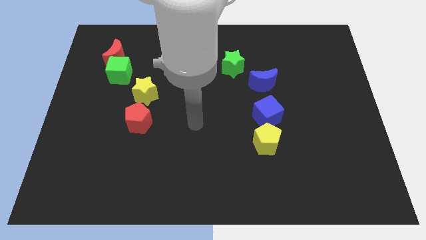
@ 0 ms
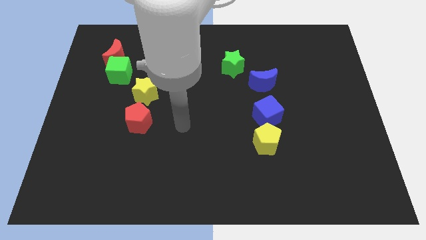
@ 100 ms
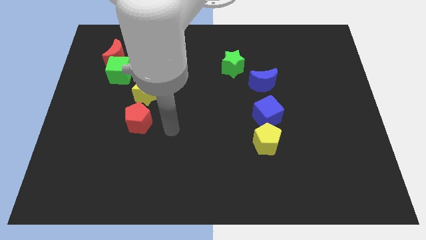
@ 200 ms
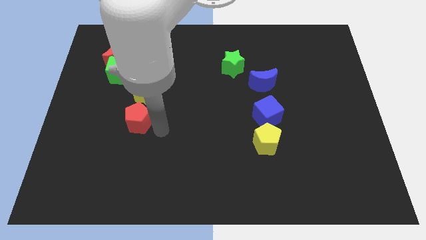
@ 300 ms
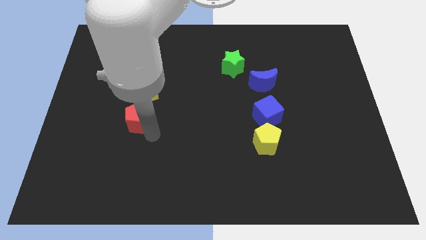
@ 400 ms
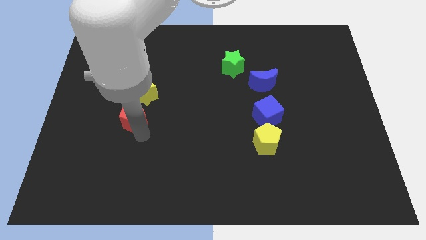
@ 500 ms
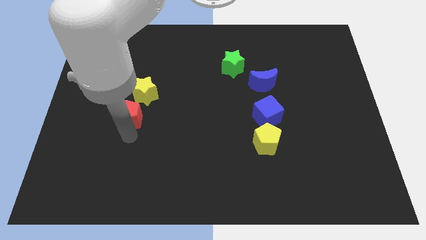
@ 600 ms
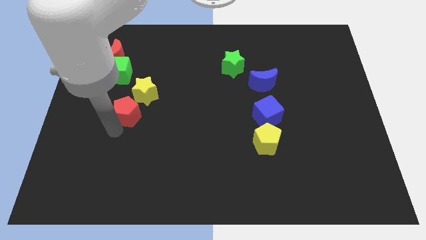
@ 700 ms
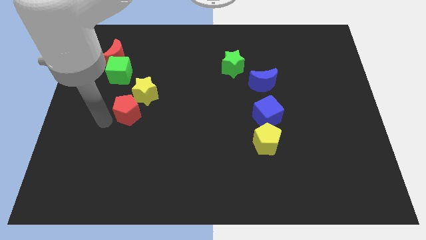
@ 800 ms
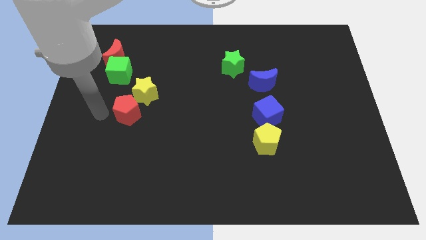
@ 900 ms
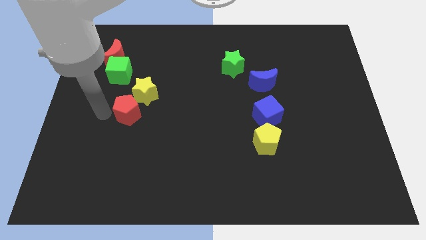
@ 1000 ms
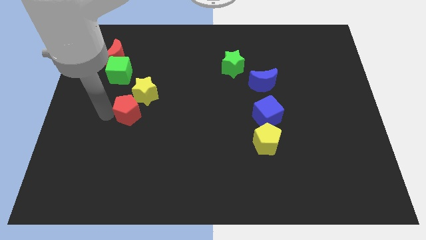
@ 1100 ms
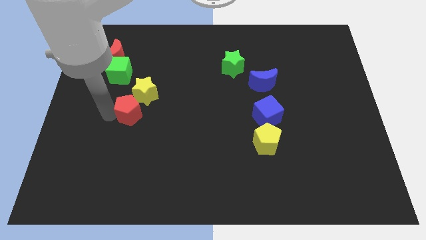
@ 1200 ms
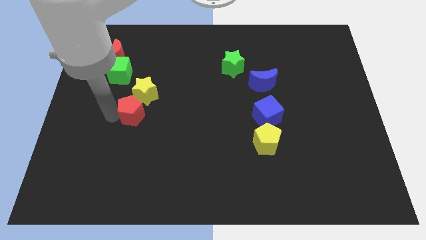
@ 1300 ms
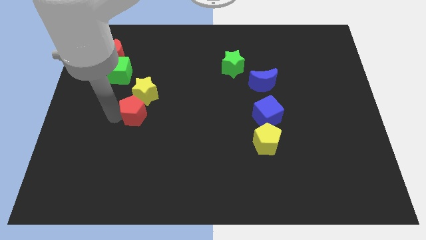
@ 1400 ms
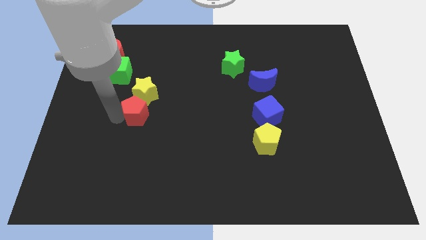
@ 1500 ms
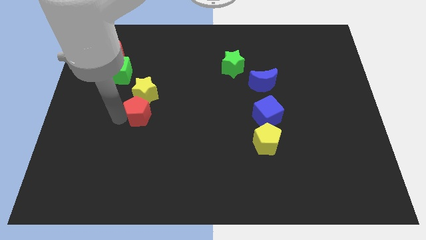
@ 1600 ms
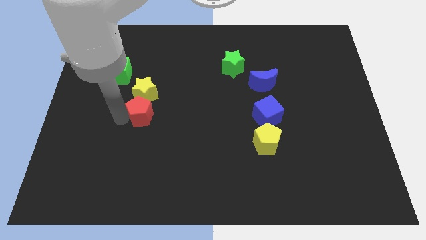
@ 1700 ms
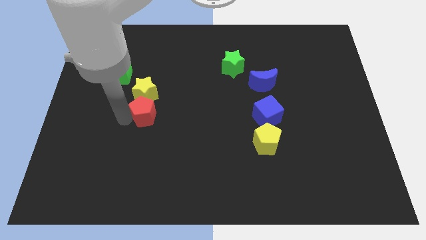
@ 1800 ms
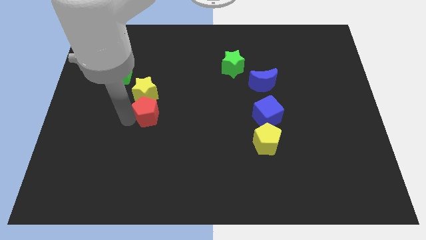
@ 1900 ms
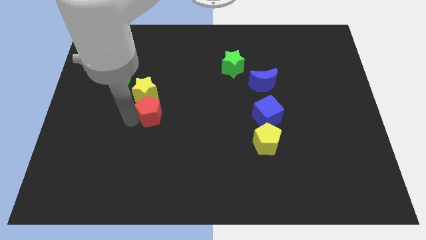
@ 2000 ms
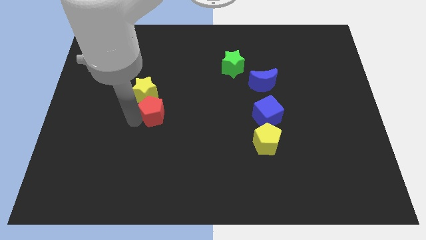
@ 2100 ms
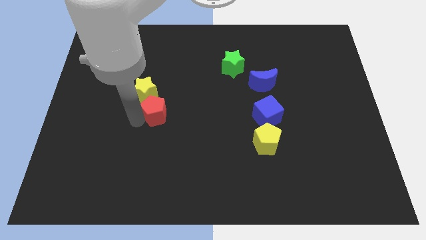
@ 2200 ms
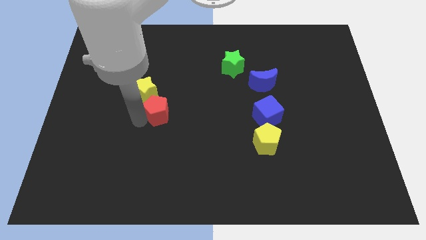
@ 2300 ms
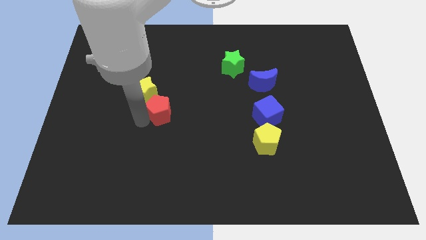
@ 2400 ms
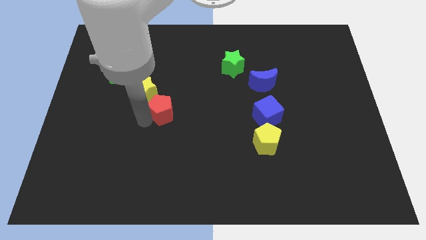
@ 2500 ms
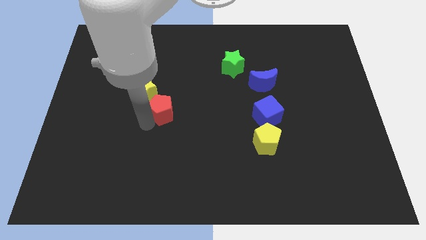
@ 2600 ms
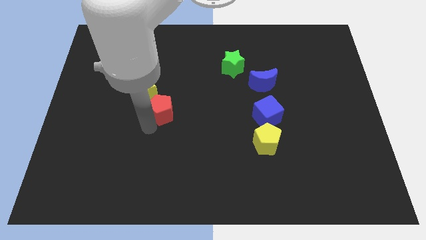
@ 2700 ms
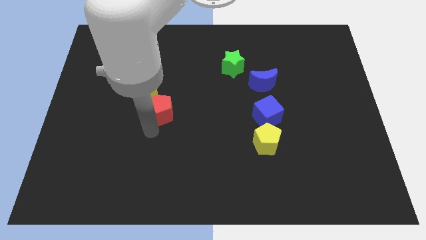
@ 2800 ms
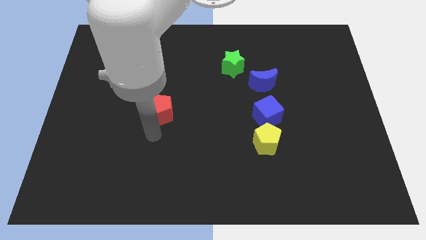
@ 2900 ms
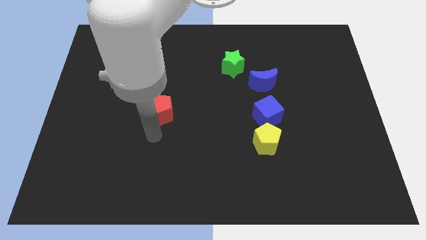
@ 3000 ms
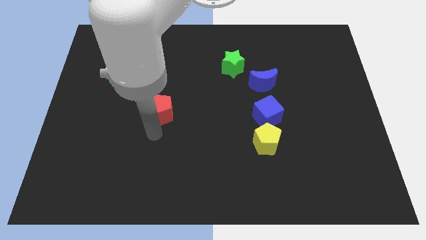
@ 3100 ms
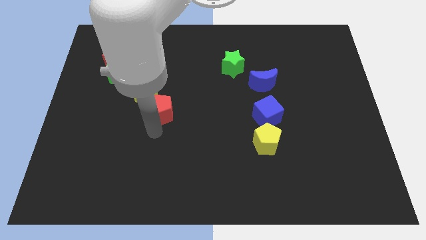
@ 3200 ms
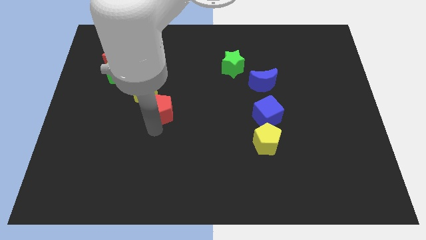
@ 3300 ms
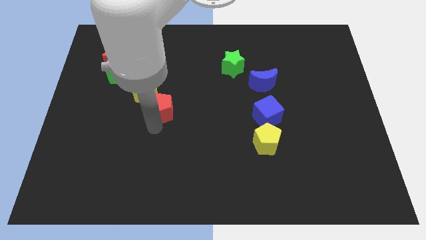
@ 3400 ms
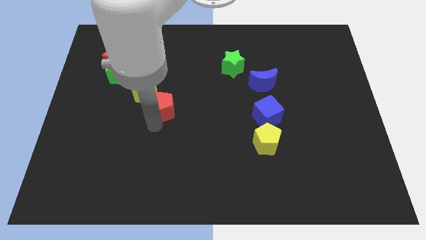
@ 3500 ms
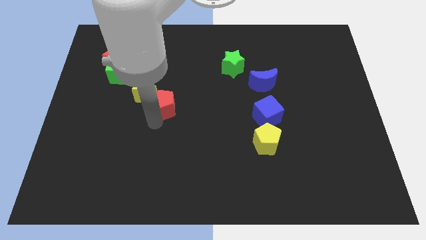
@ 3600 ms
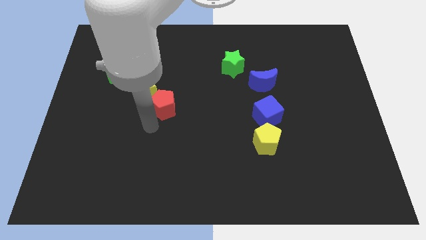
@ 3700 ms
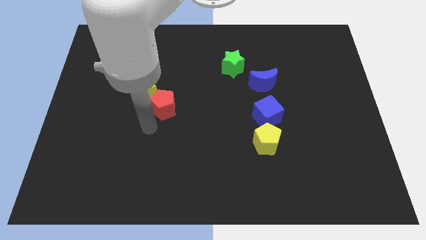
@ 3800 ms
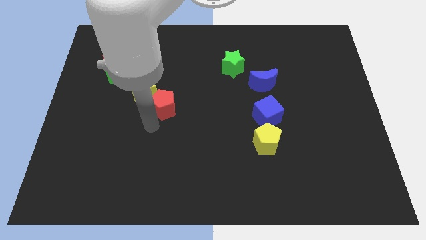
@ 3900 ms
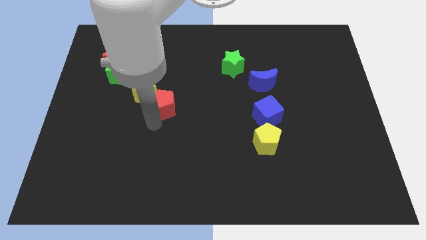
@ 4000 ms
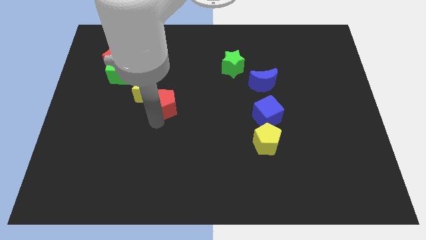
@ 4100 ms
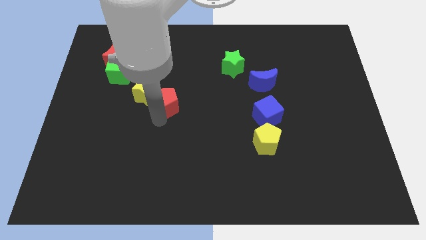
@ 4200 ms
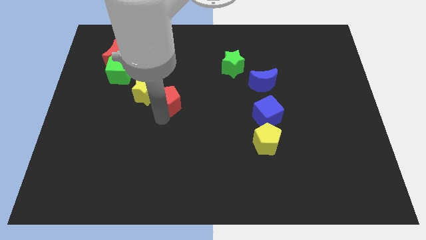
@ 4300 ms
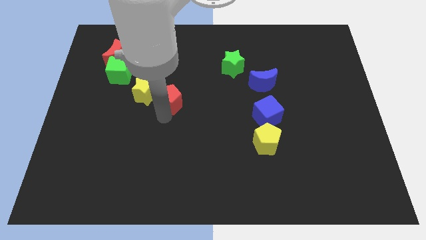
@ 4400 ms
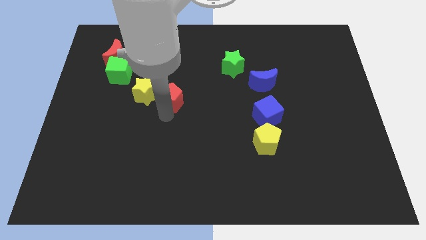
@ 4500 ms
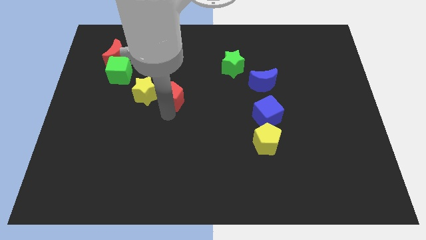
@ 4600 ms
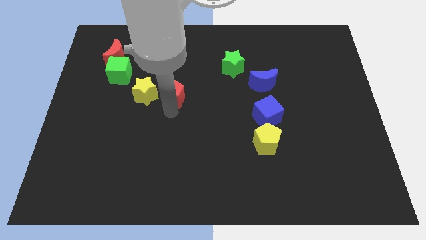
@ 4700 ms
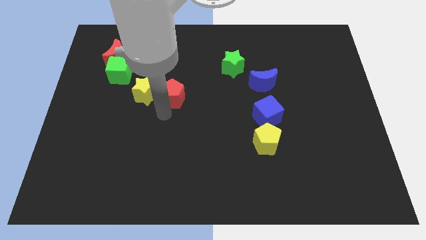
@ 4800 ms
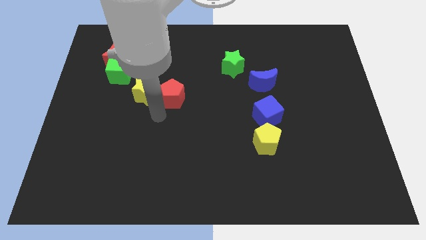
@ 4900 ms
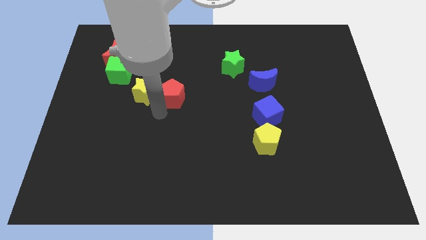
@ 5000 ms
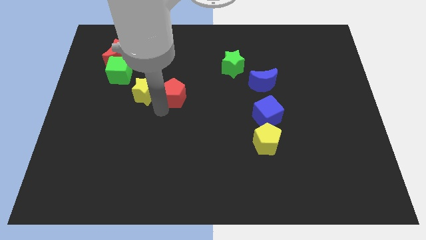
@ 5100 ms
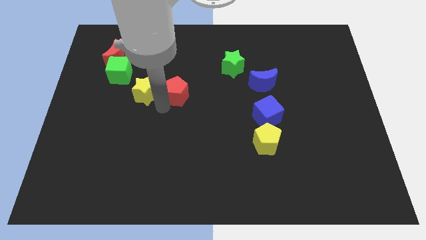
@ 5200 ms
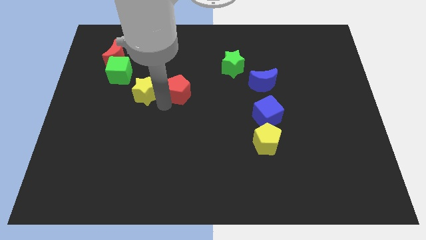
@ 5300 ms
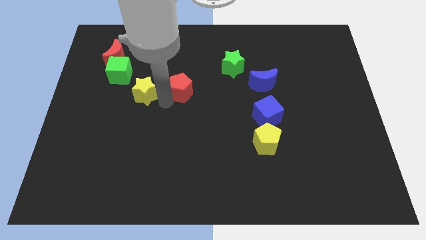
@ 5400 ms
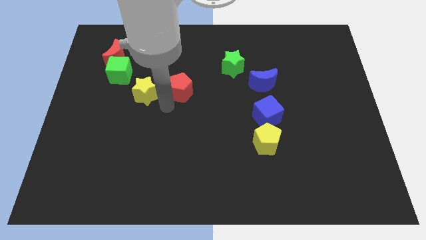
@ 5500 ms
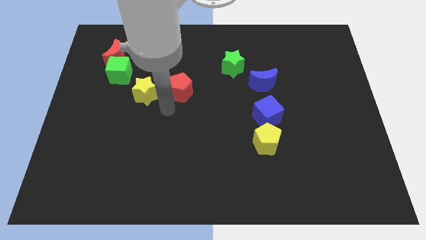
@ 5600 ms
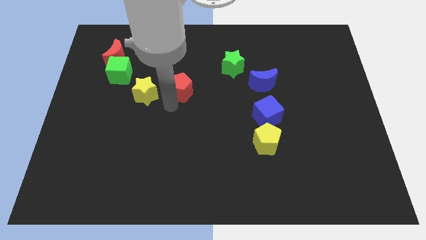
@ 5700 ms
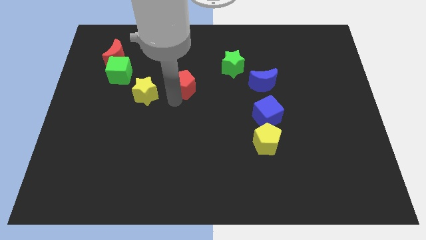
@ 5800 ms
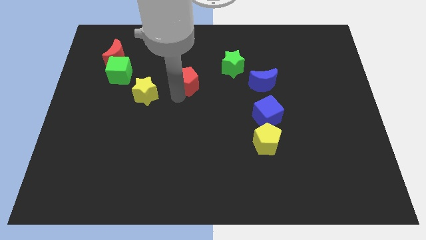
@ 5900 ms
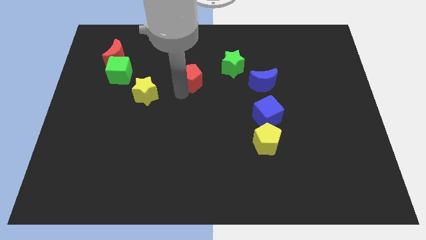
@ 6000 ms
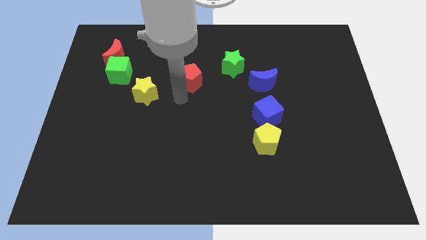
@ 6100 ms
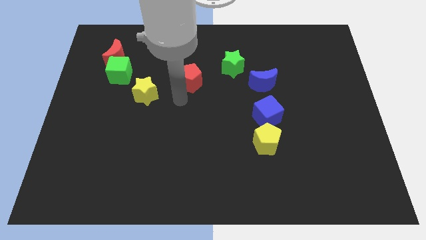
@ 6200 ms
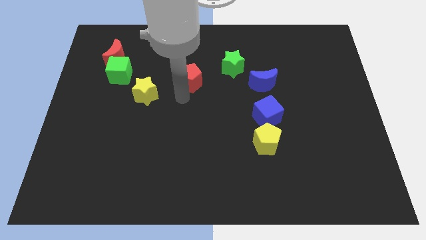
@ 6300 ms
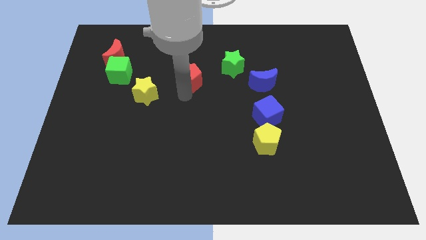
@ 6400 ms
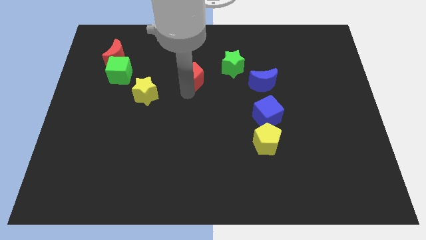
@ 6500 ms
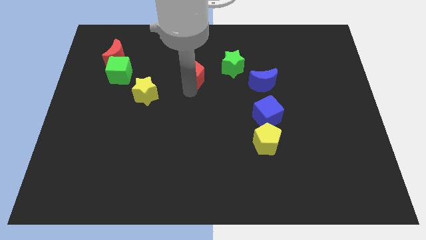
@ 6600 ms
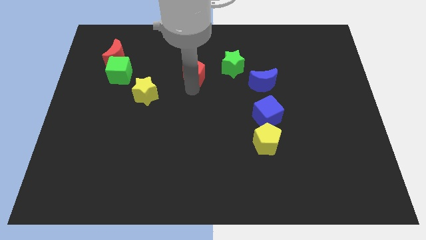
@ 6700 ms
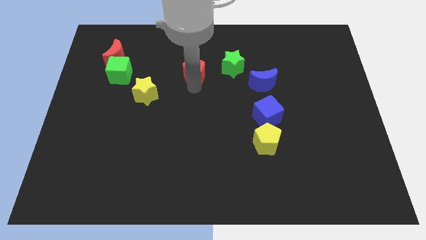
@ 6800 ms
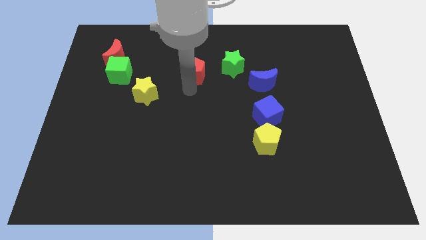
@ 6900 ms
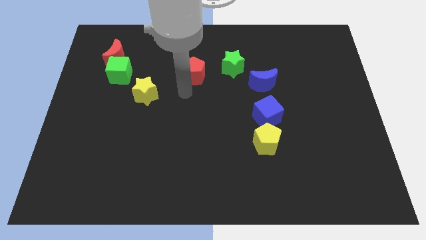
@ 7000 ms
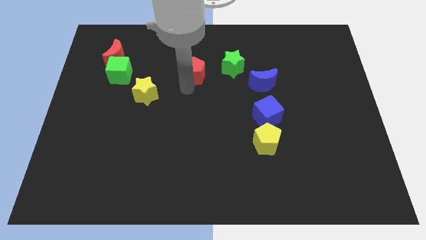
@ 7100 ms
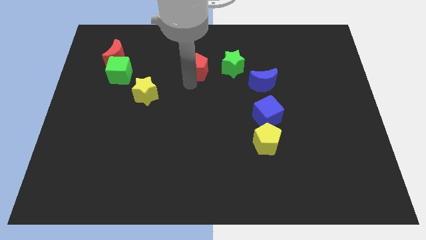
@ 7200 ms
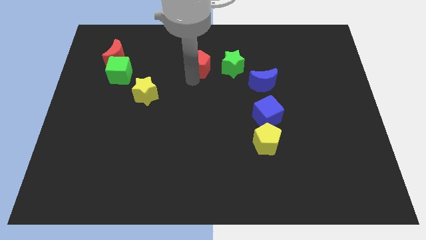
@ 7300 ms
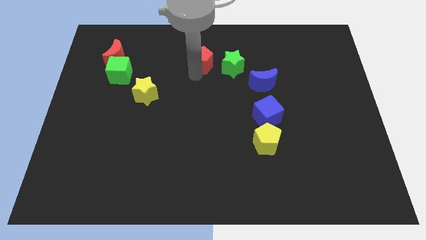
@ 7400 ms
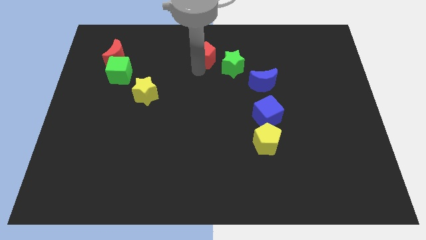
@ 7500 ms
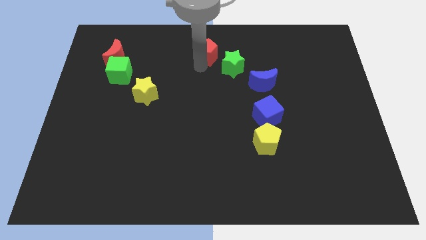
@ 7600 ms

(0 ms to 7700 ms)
put the red pentagon to the towards your base

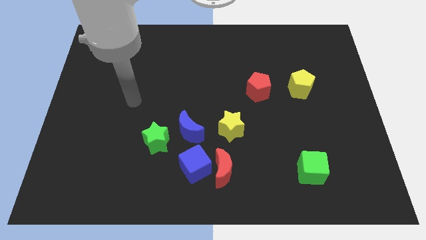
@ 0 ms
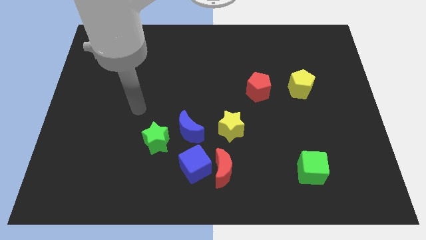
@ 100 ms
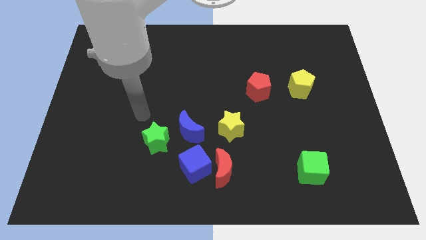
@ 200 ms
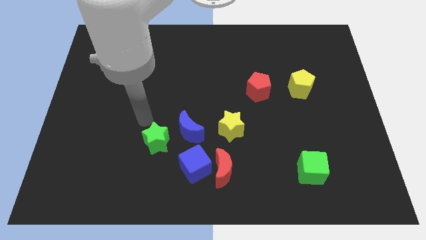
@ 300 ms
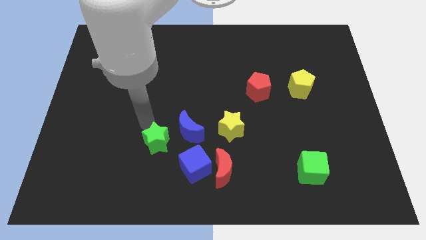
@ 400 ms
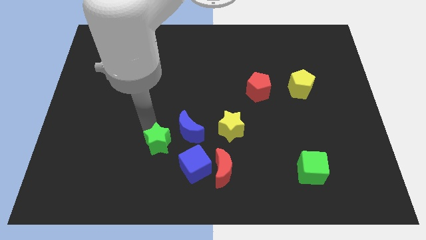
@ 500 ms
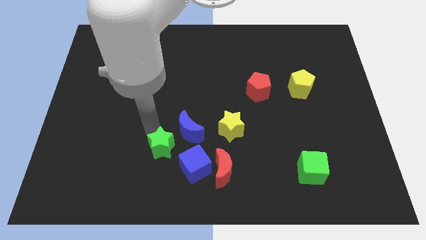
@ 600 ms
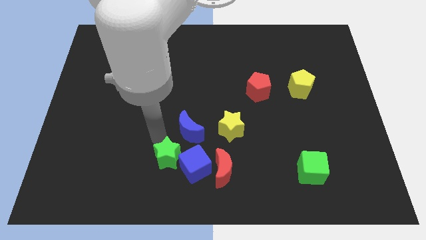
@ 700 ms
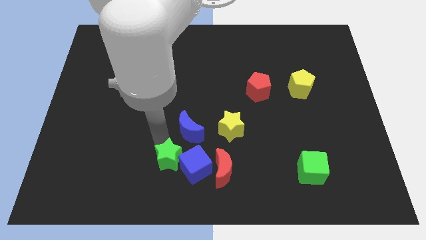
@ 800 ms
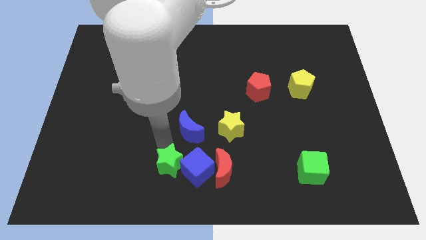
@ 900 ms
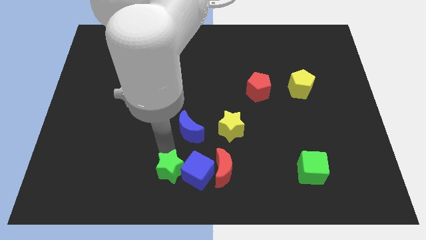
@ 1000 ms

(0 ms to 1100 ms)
push the green star to the bottom side
